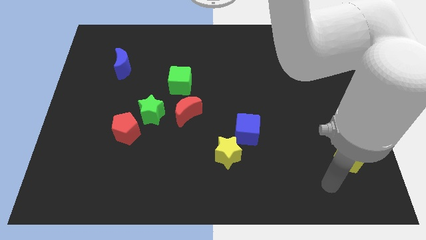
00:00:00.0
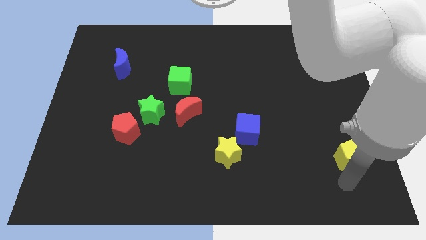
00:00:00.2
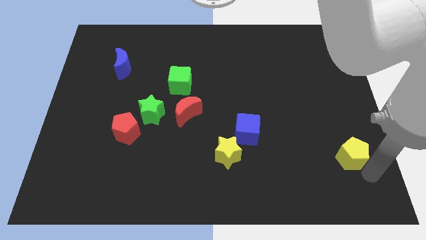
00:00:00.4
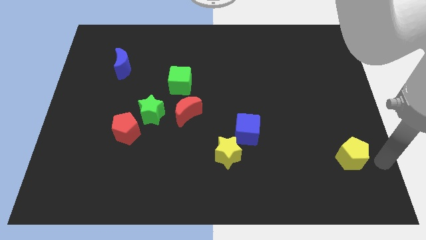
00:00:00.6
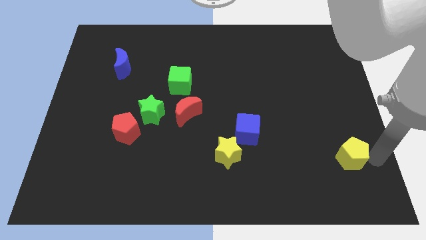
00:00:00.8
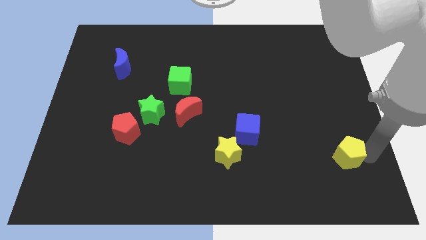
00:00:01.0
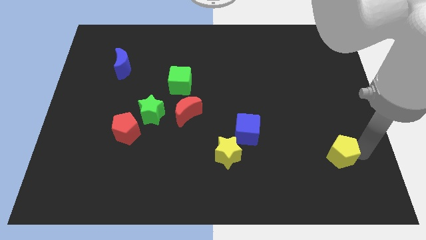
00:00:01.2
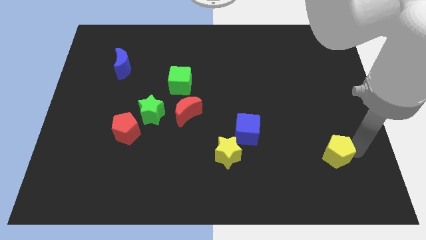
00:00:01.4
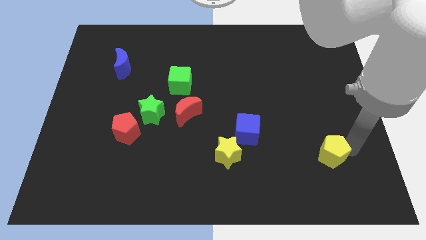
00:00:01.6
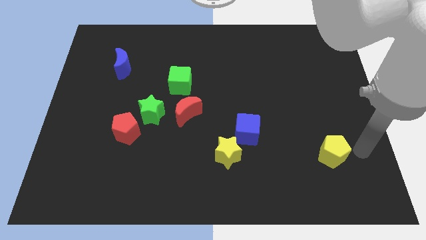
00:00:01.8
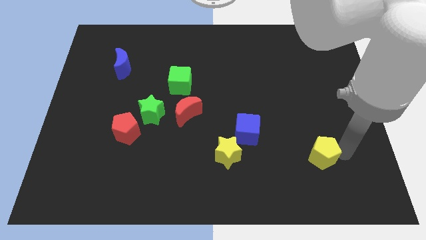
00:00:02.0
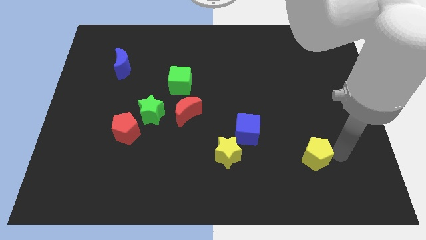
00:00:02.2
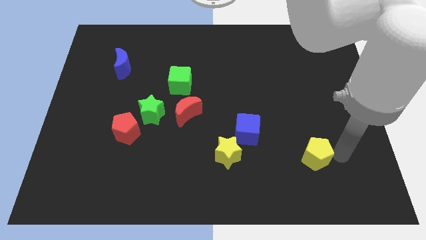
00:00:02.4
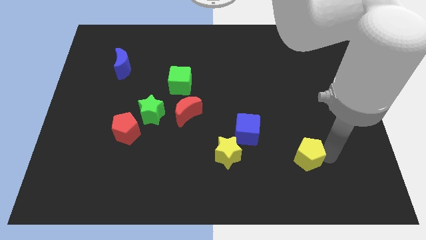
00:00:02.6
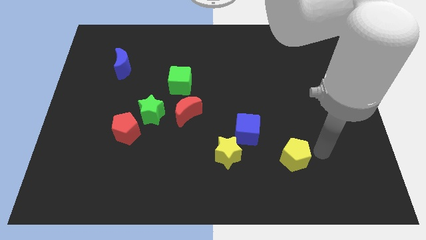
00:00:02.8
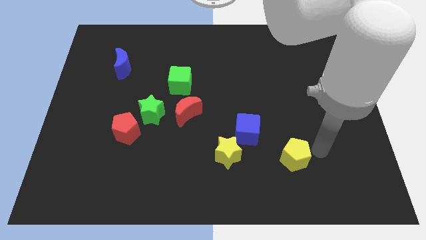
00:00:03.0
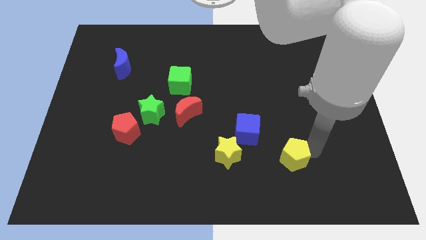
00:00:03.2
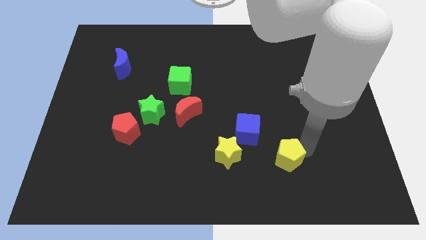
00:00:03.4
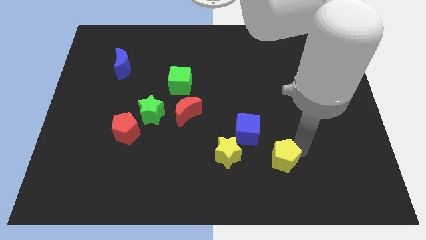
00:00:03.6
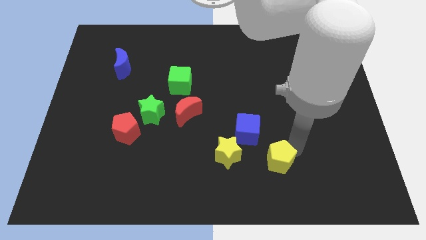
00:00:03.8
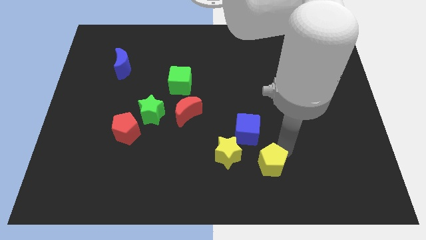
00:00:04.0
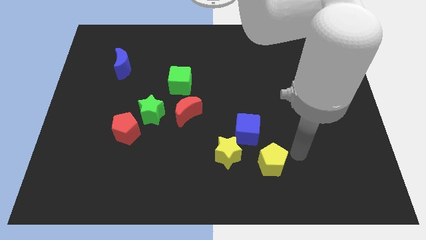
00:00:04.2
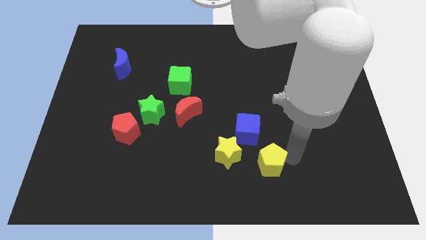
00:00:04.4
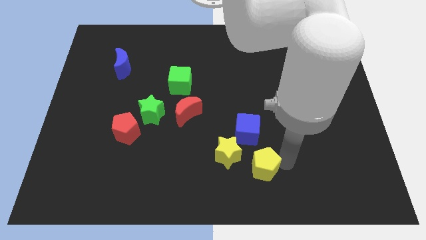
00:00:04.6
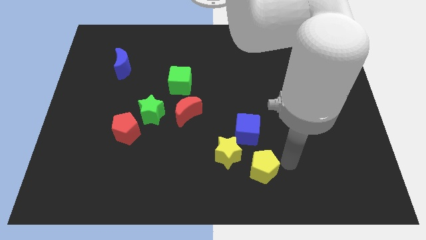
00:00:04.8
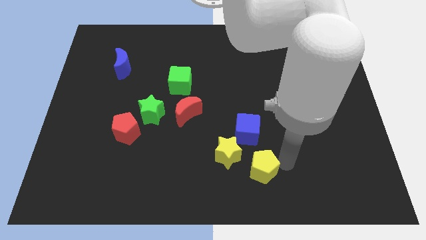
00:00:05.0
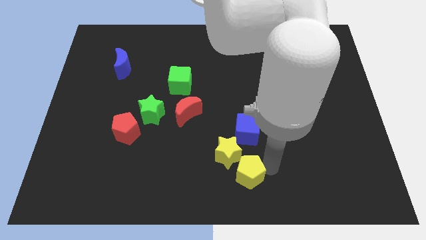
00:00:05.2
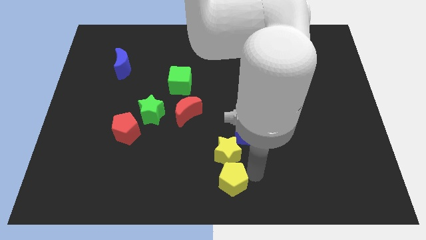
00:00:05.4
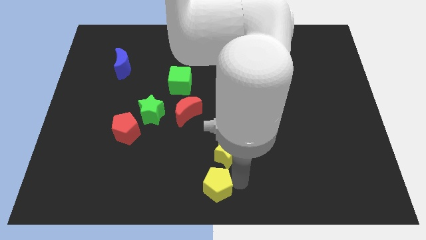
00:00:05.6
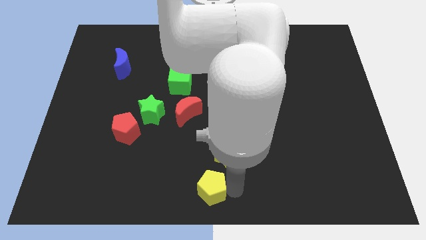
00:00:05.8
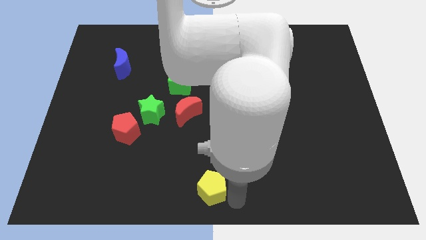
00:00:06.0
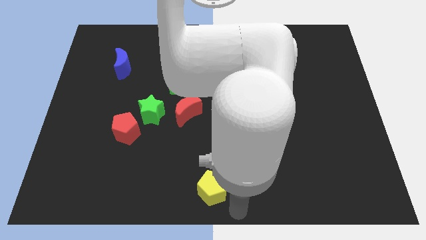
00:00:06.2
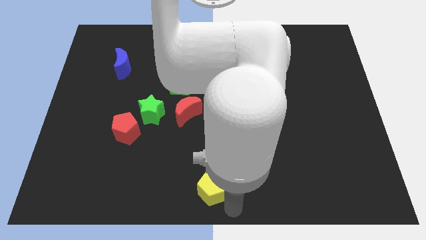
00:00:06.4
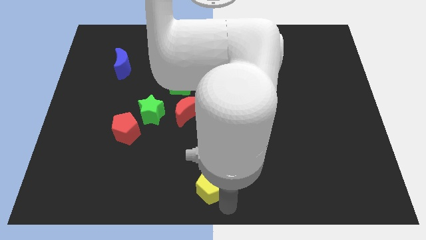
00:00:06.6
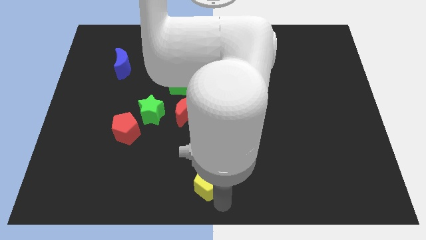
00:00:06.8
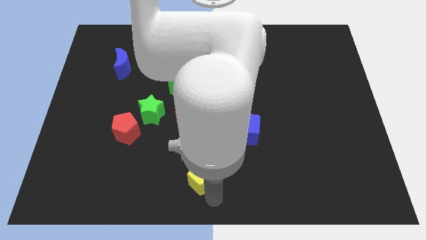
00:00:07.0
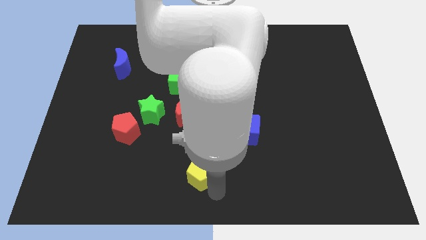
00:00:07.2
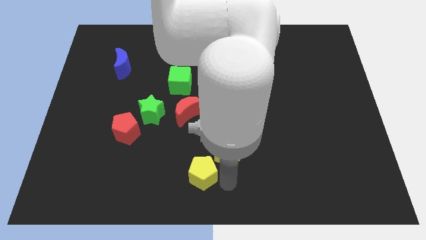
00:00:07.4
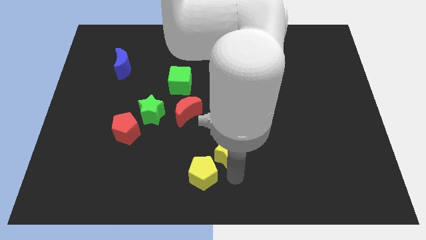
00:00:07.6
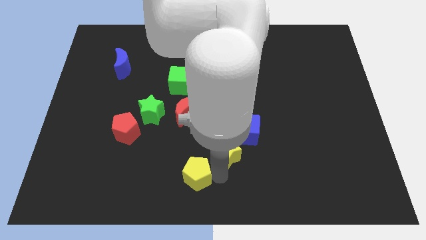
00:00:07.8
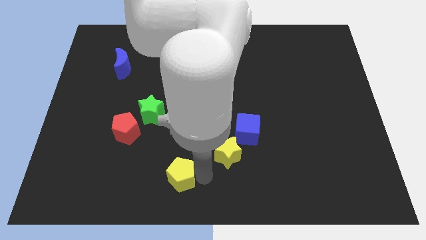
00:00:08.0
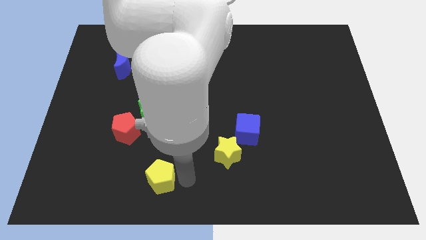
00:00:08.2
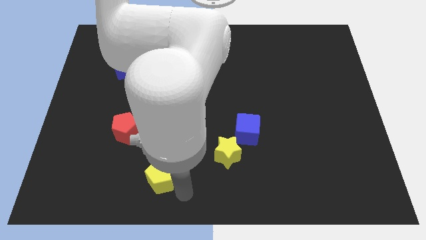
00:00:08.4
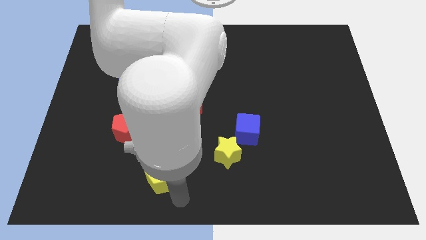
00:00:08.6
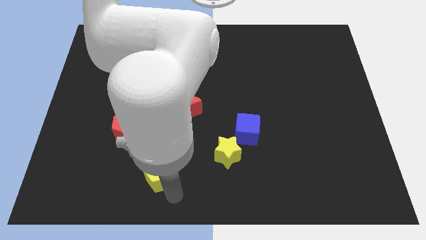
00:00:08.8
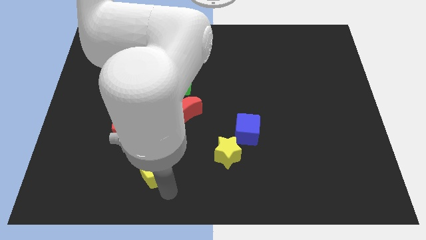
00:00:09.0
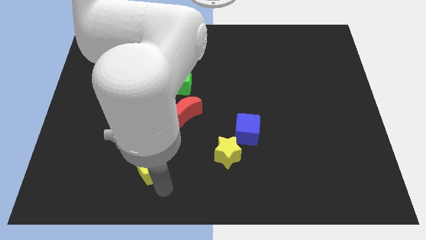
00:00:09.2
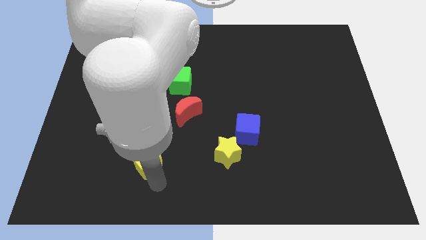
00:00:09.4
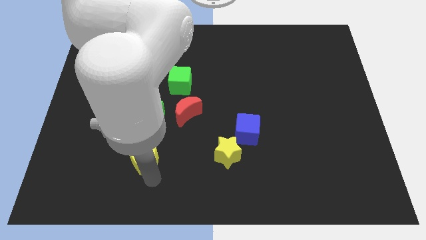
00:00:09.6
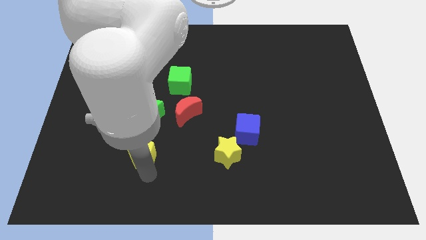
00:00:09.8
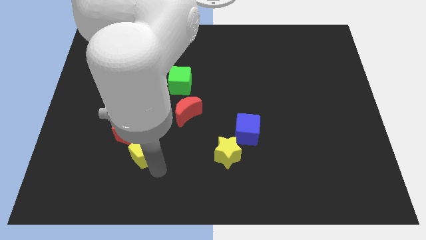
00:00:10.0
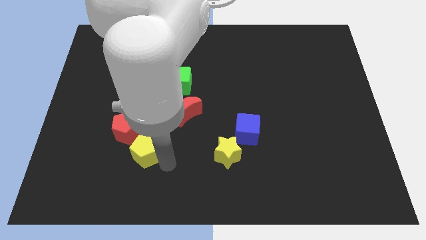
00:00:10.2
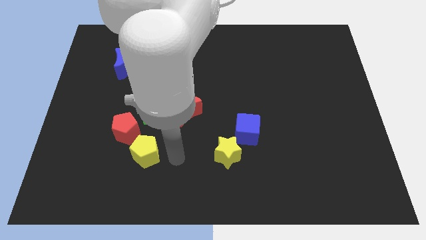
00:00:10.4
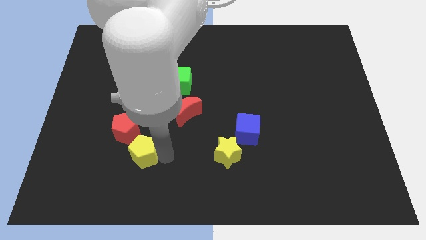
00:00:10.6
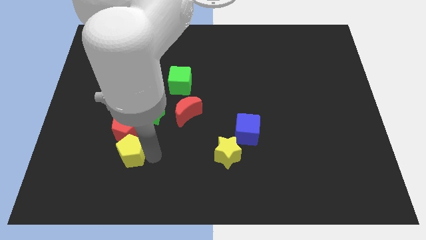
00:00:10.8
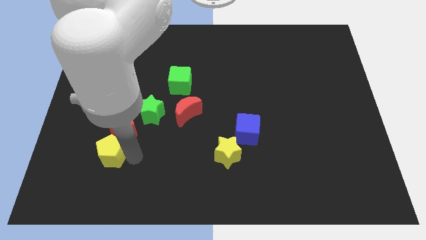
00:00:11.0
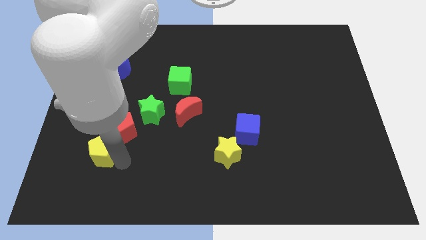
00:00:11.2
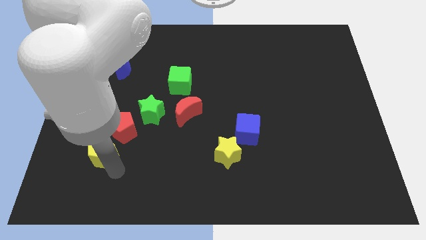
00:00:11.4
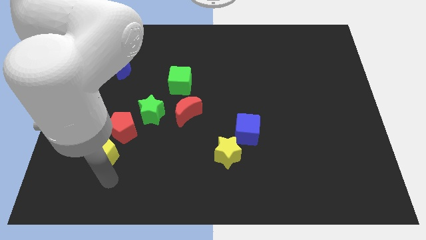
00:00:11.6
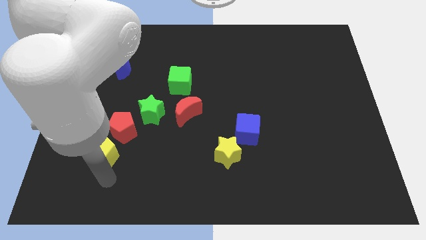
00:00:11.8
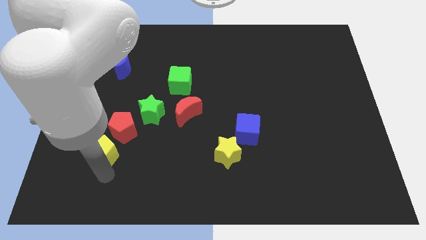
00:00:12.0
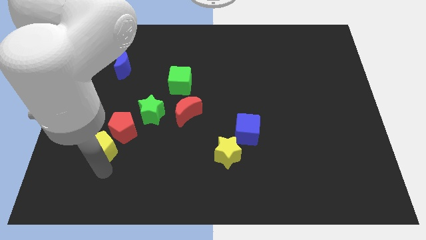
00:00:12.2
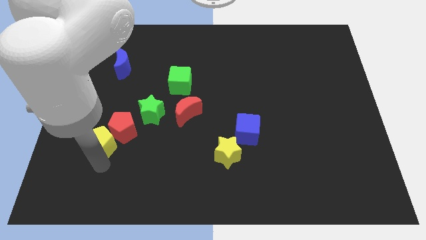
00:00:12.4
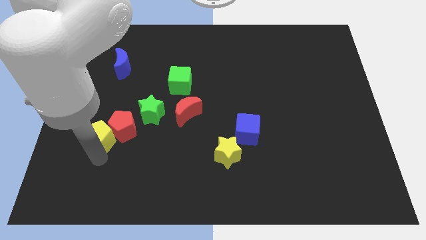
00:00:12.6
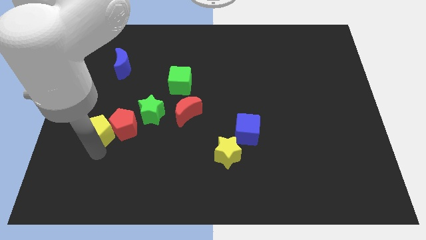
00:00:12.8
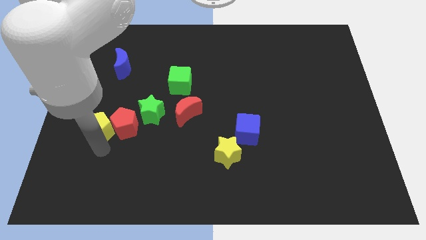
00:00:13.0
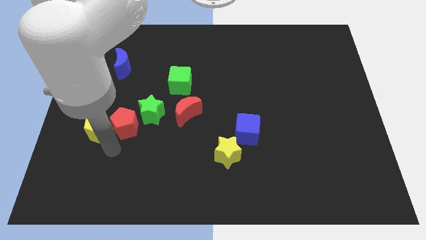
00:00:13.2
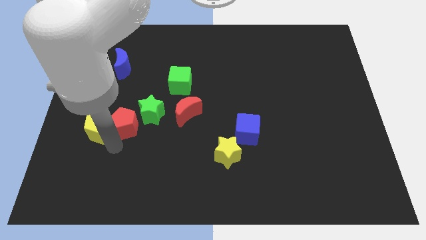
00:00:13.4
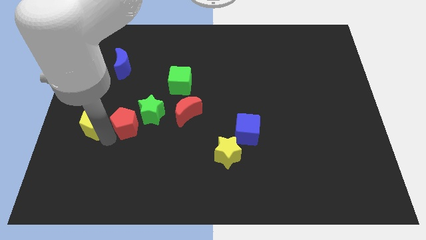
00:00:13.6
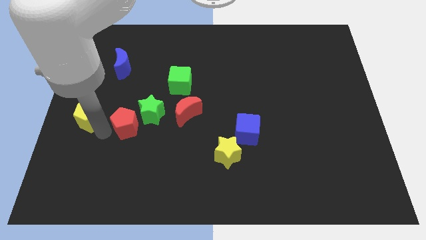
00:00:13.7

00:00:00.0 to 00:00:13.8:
slide the yellow pentagon to the center left
